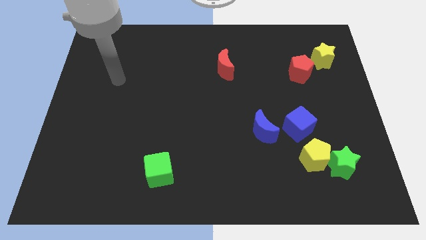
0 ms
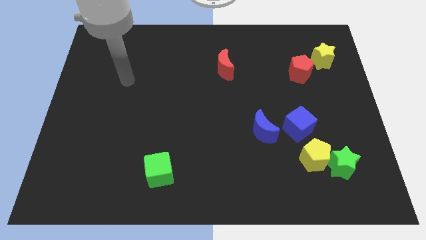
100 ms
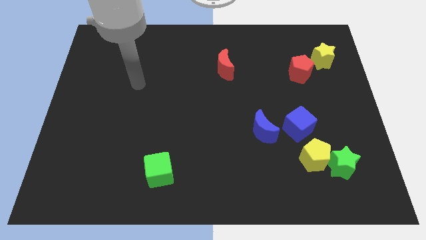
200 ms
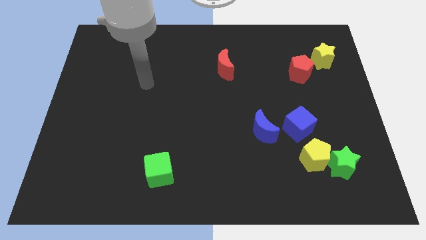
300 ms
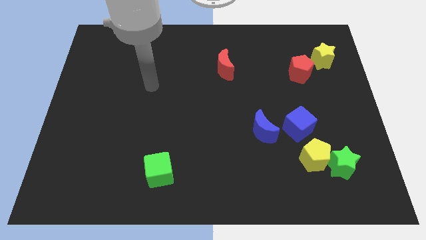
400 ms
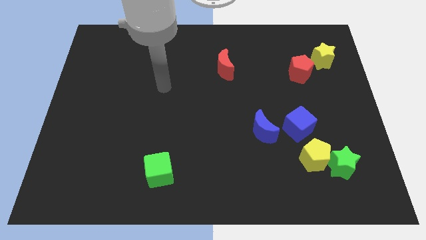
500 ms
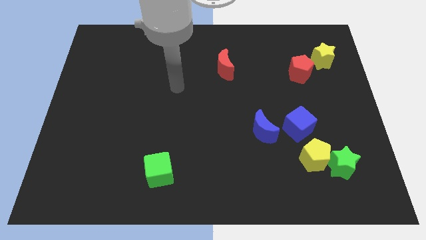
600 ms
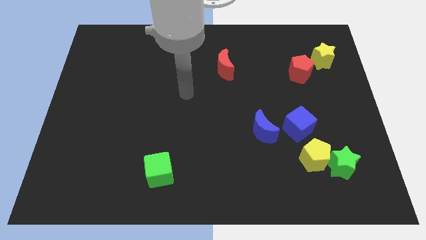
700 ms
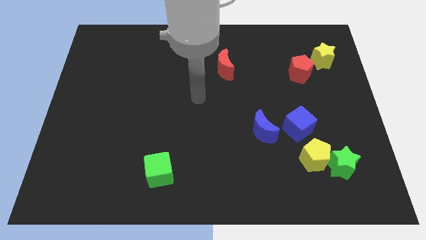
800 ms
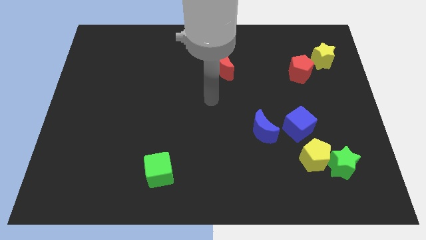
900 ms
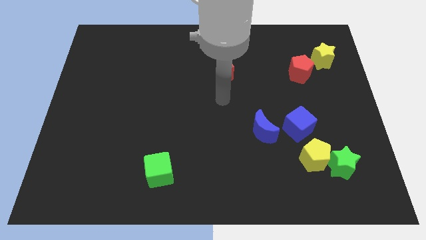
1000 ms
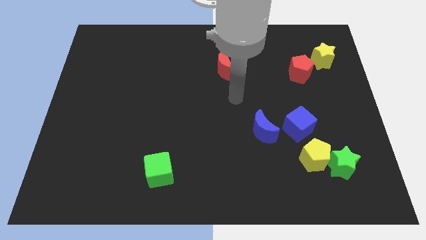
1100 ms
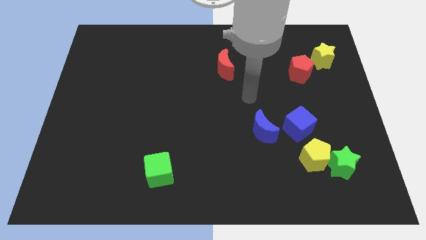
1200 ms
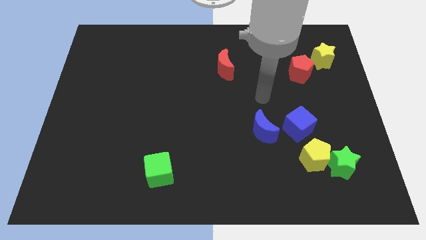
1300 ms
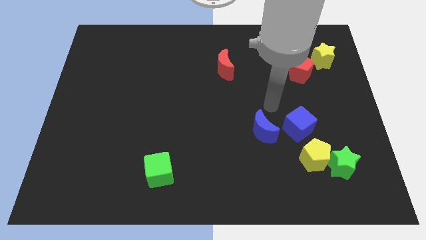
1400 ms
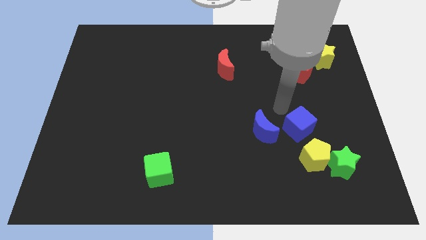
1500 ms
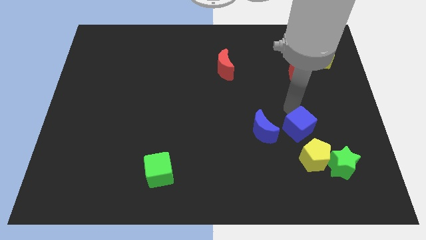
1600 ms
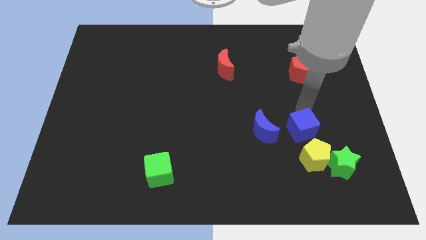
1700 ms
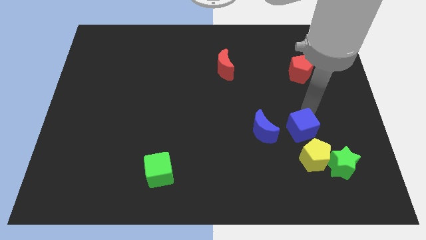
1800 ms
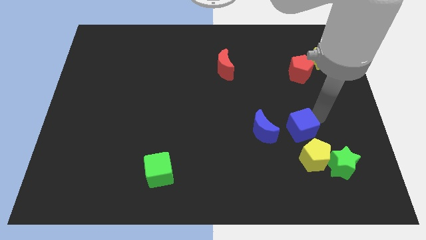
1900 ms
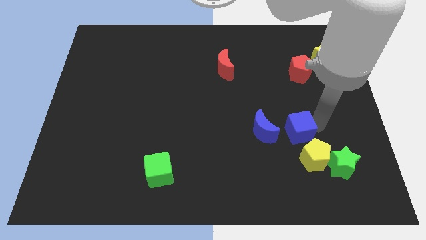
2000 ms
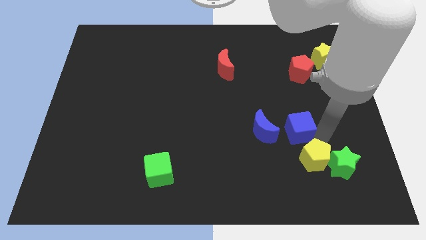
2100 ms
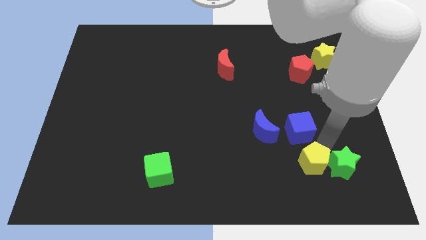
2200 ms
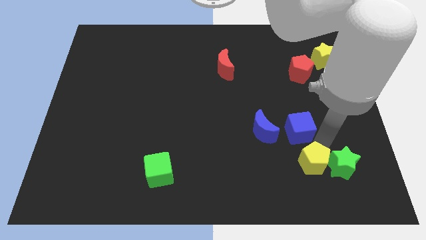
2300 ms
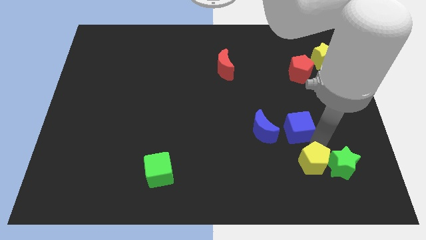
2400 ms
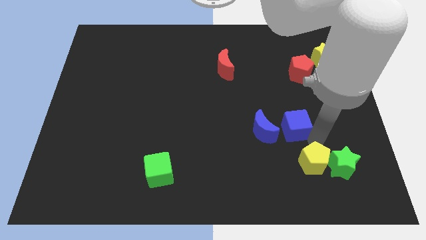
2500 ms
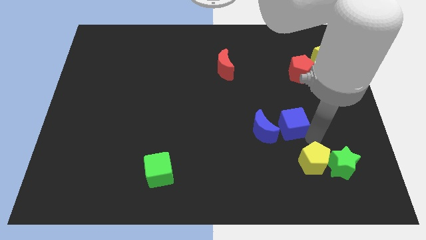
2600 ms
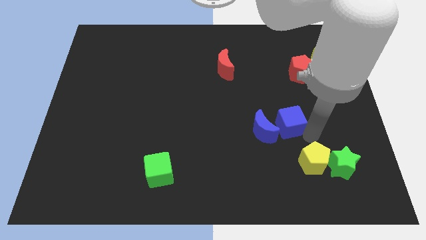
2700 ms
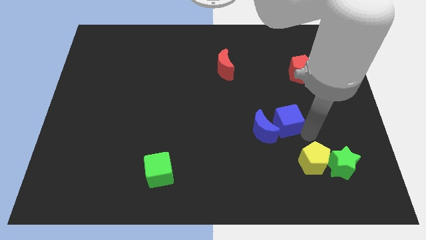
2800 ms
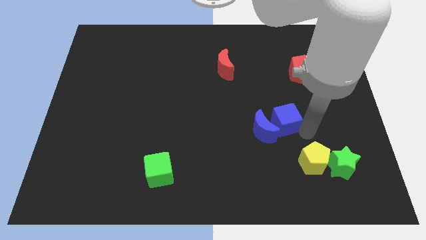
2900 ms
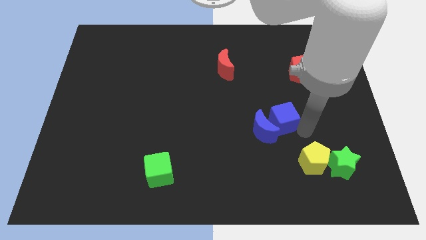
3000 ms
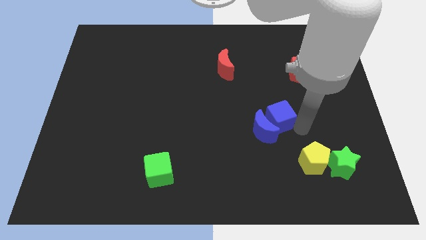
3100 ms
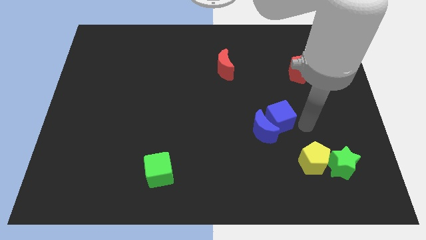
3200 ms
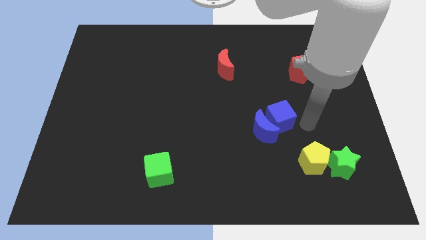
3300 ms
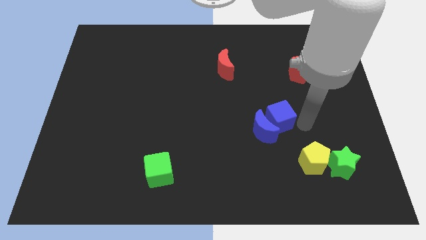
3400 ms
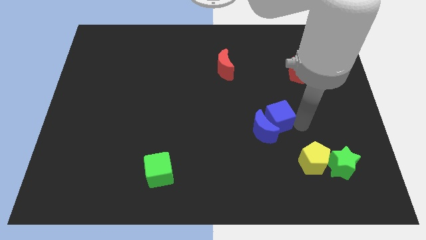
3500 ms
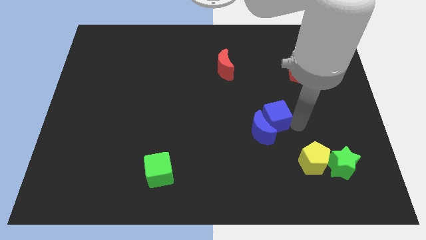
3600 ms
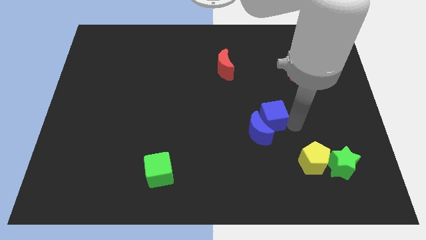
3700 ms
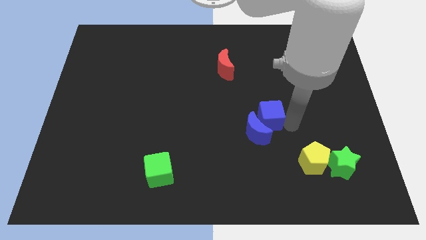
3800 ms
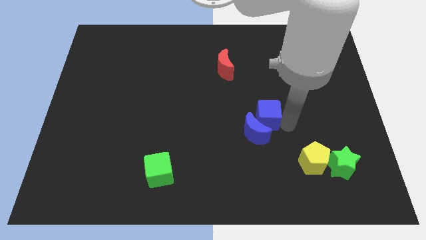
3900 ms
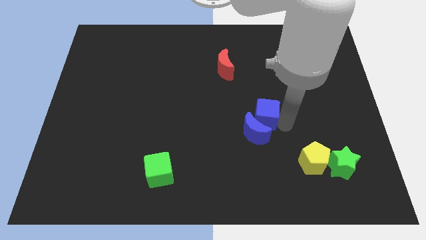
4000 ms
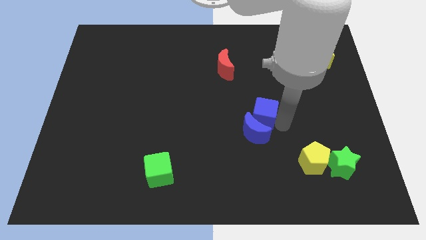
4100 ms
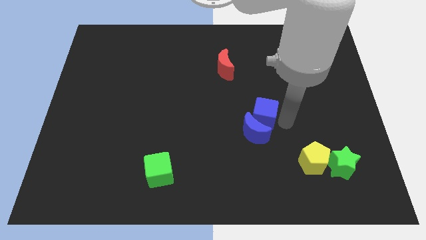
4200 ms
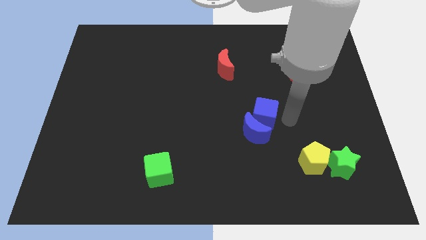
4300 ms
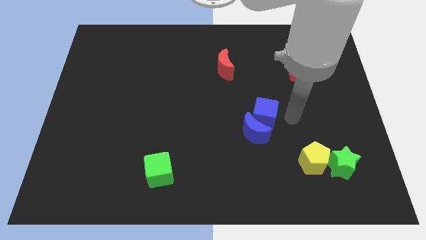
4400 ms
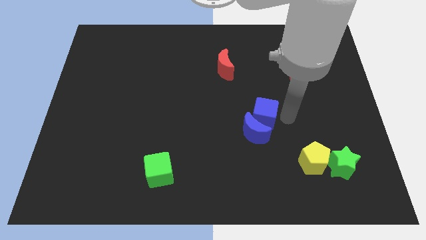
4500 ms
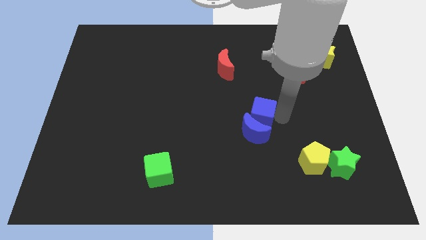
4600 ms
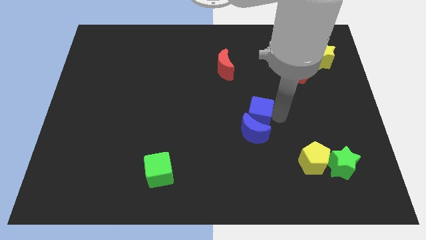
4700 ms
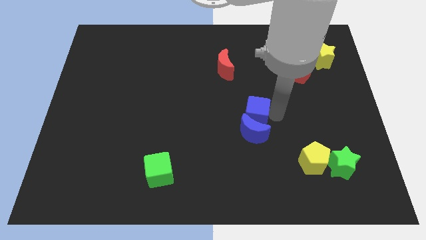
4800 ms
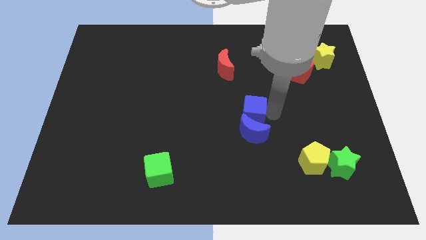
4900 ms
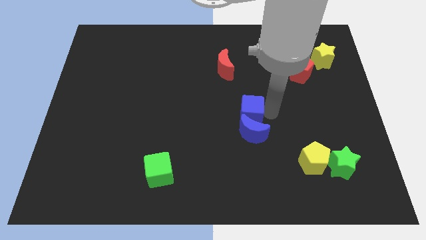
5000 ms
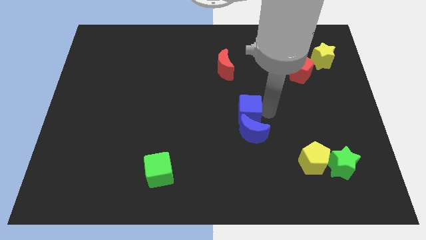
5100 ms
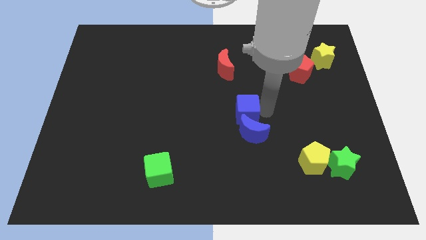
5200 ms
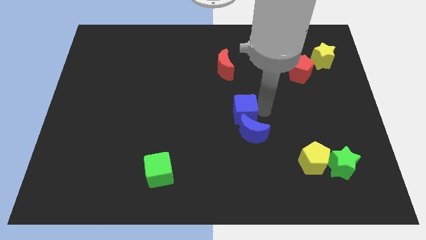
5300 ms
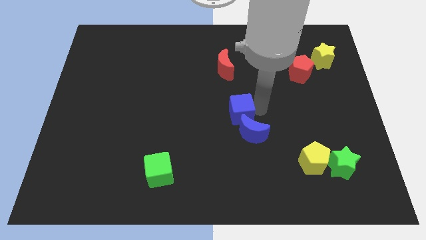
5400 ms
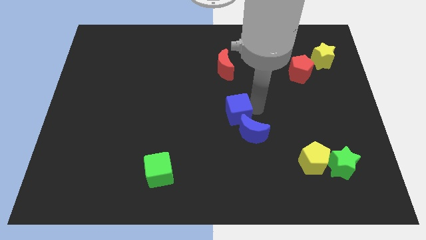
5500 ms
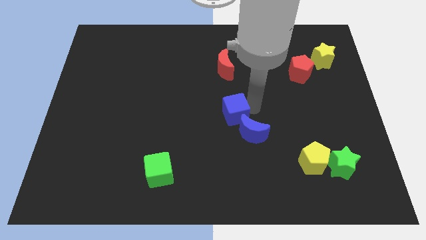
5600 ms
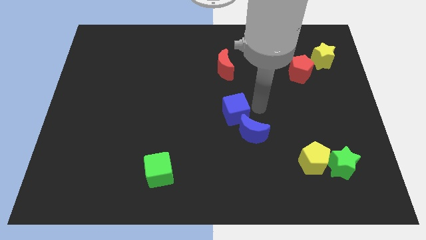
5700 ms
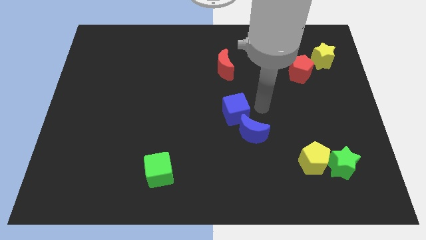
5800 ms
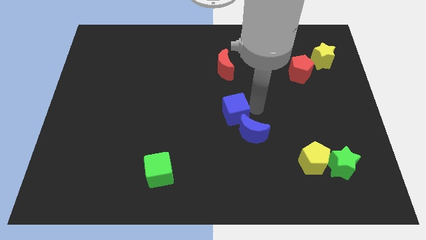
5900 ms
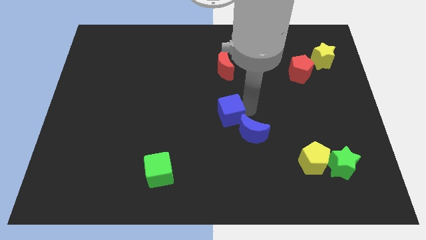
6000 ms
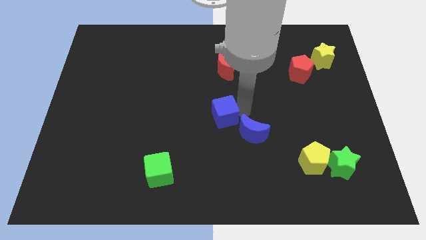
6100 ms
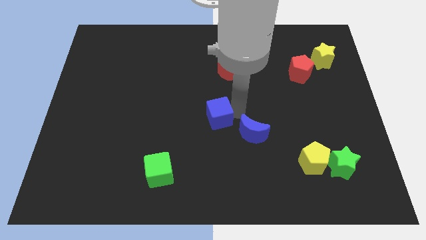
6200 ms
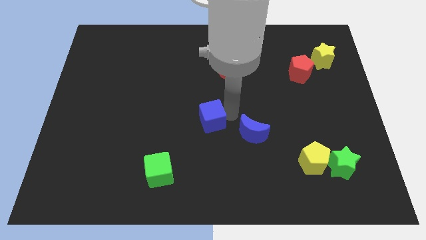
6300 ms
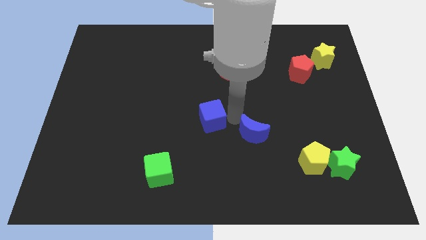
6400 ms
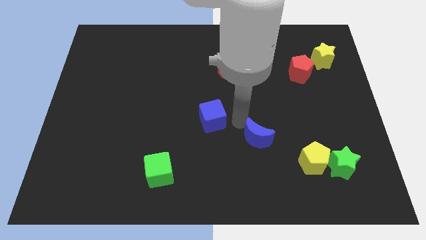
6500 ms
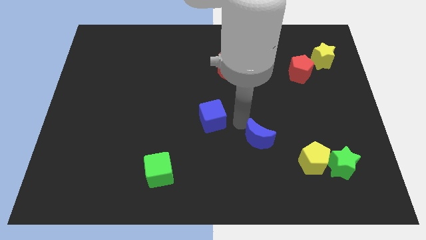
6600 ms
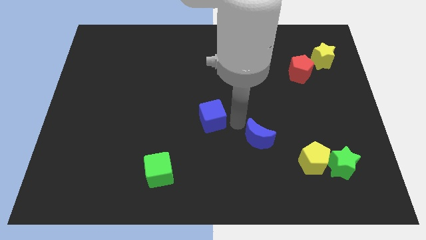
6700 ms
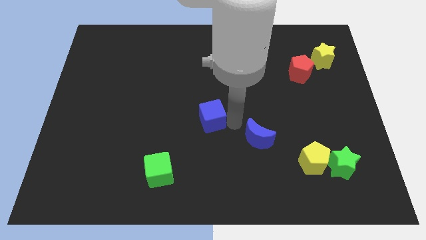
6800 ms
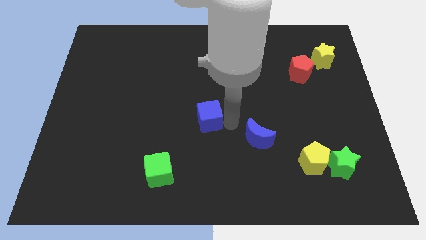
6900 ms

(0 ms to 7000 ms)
push the blue cube left

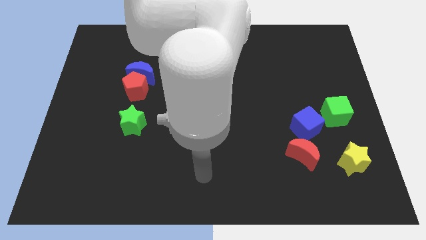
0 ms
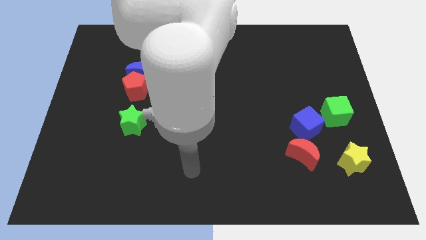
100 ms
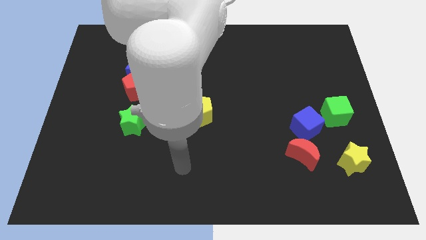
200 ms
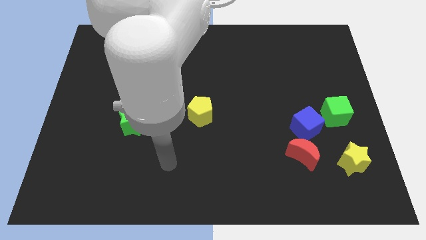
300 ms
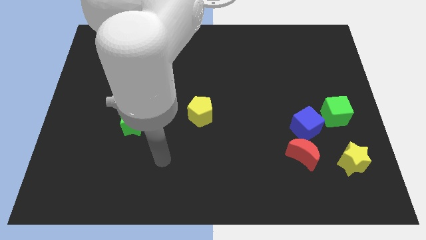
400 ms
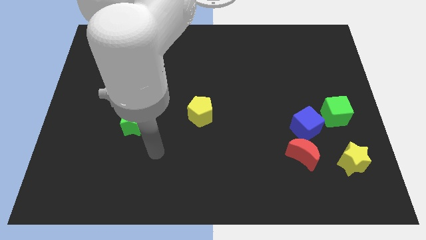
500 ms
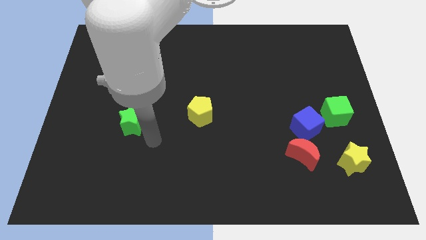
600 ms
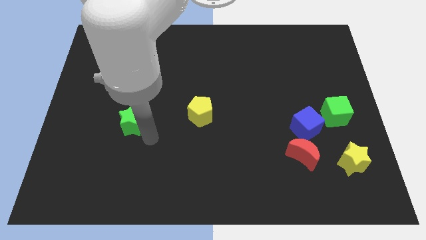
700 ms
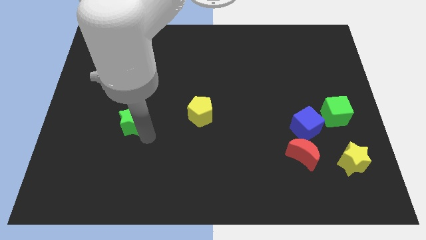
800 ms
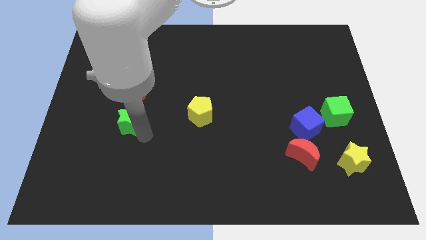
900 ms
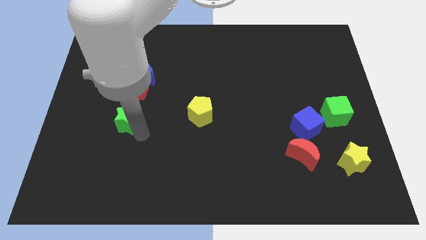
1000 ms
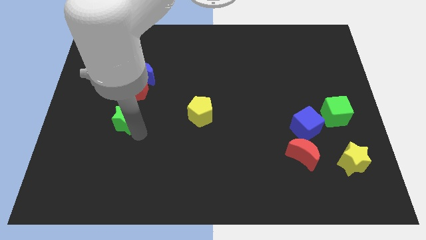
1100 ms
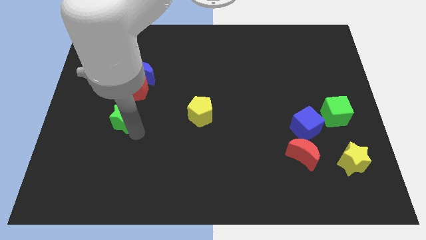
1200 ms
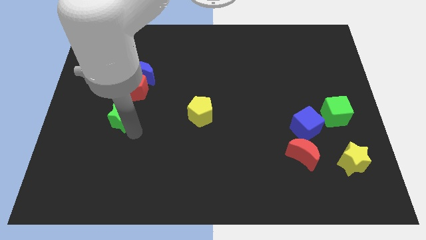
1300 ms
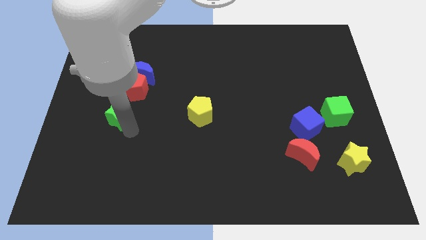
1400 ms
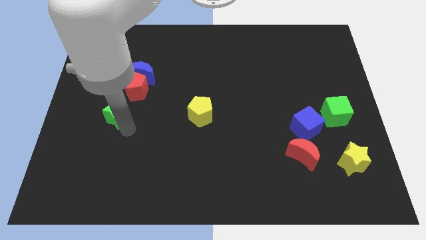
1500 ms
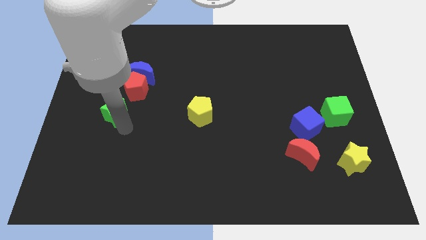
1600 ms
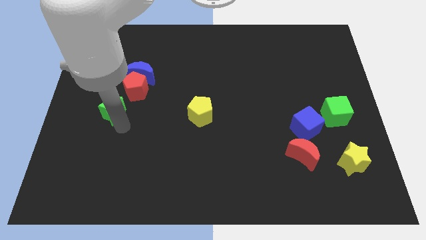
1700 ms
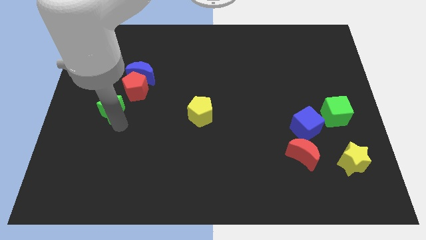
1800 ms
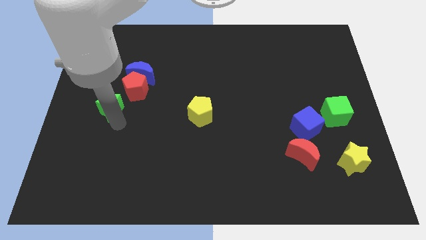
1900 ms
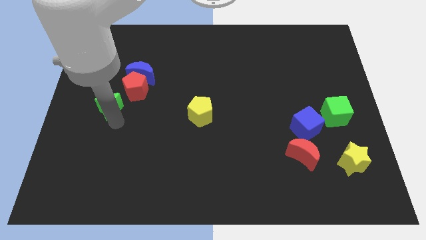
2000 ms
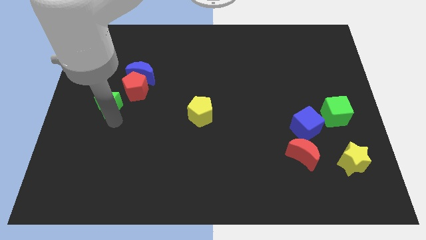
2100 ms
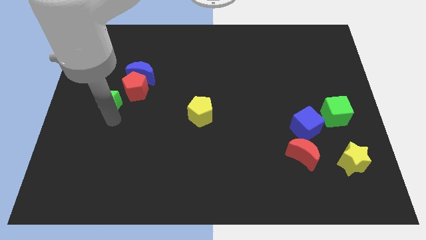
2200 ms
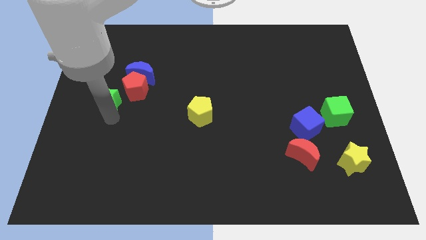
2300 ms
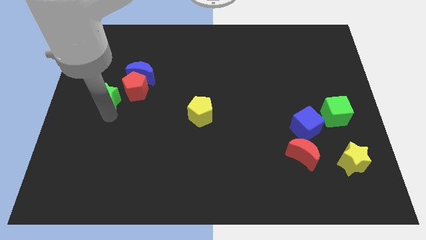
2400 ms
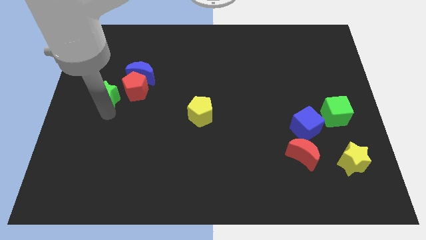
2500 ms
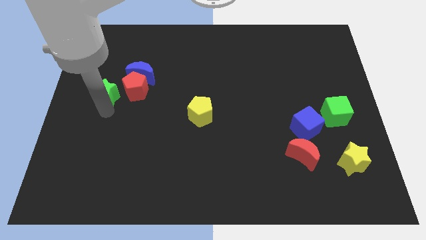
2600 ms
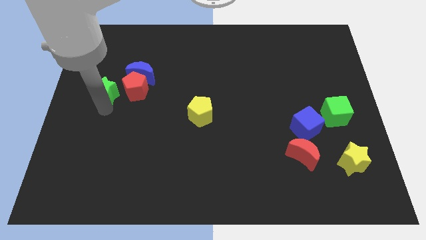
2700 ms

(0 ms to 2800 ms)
slide the green star a little bit up
